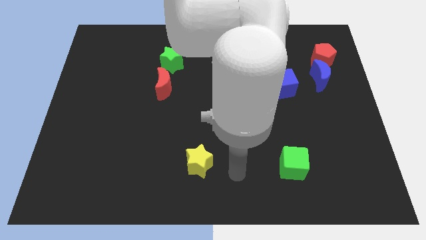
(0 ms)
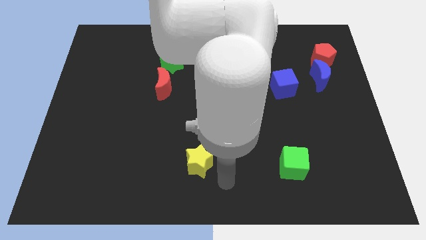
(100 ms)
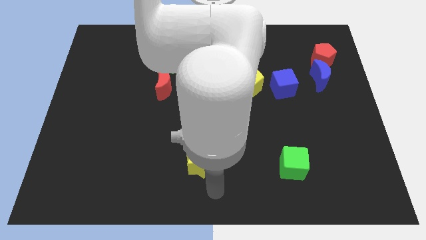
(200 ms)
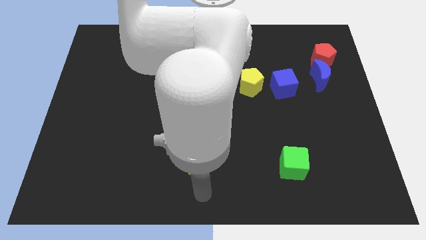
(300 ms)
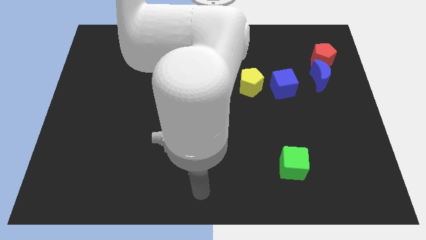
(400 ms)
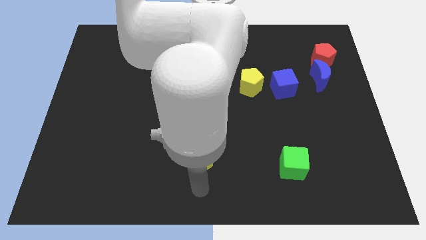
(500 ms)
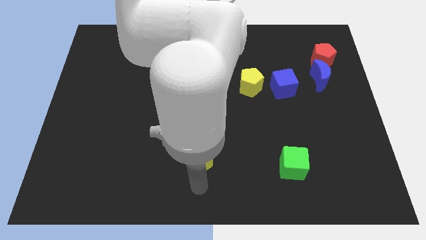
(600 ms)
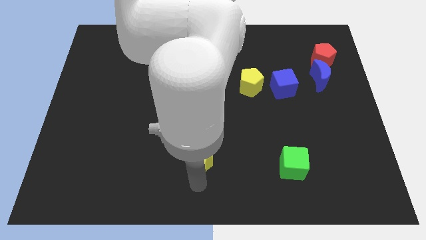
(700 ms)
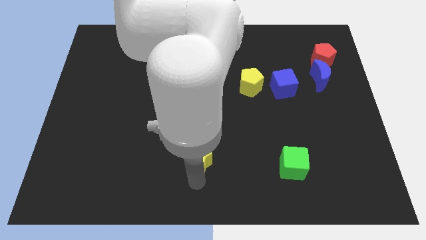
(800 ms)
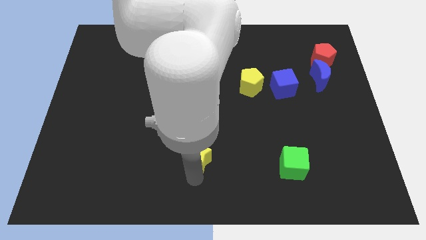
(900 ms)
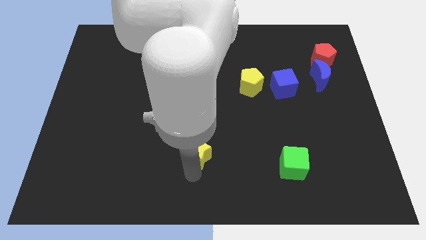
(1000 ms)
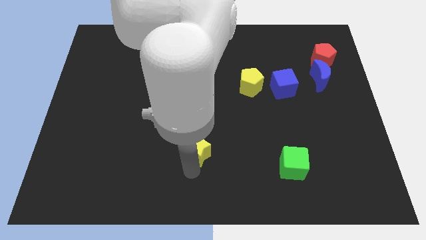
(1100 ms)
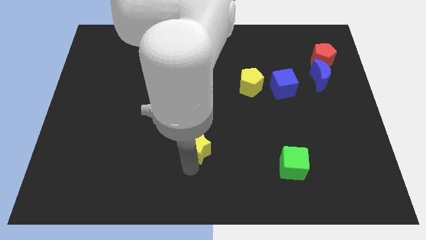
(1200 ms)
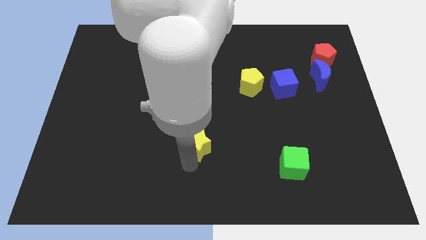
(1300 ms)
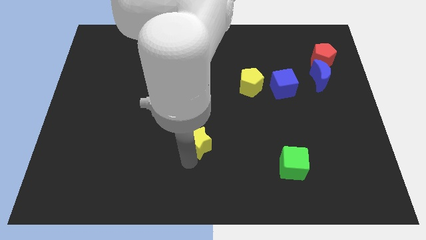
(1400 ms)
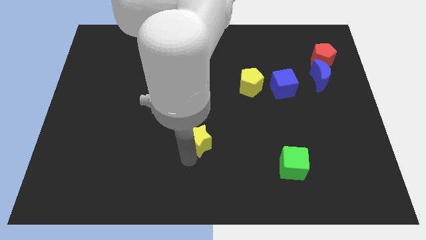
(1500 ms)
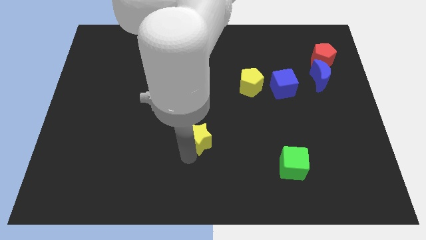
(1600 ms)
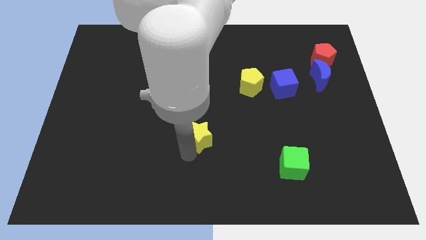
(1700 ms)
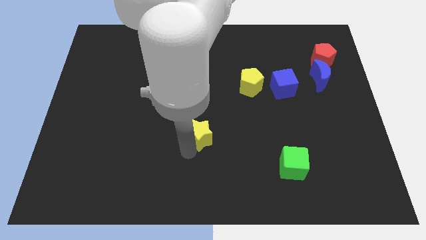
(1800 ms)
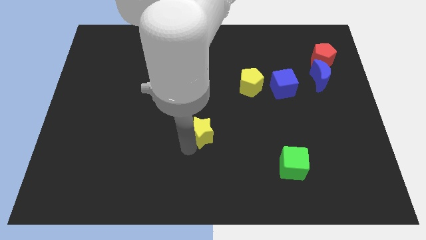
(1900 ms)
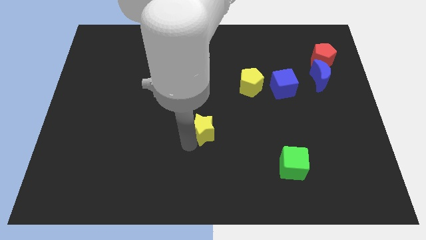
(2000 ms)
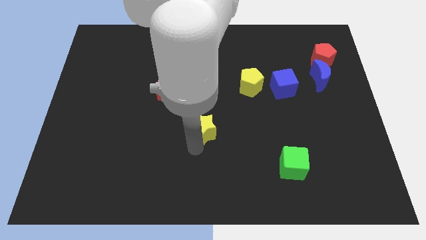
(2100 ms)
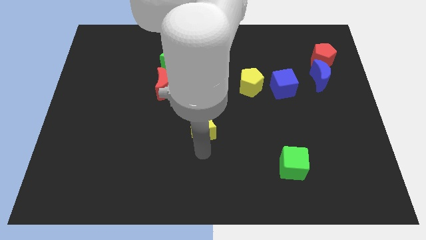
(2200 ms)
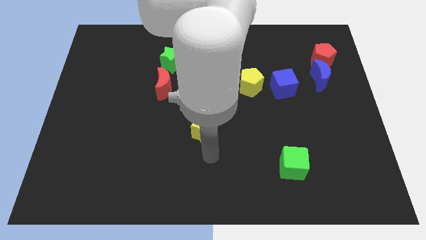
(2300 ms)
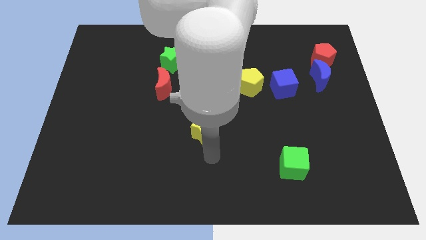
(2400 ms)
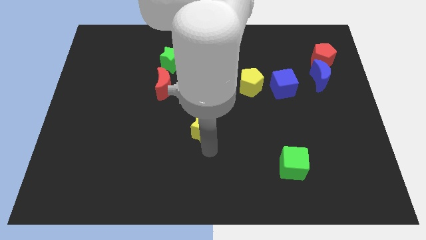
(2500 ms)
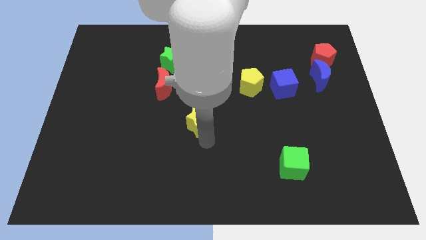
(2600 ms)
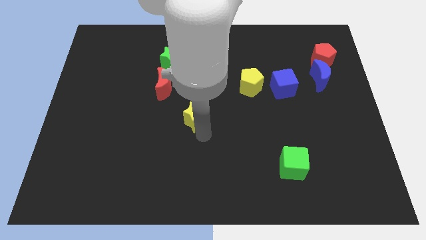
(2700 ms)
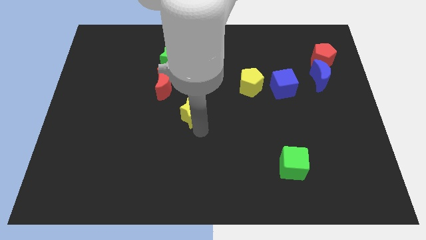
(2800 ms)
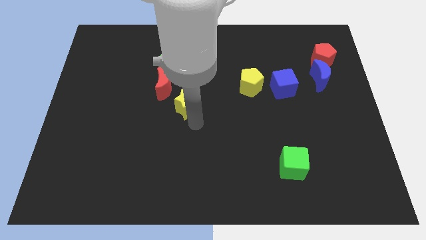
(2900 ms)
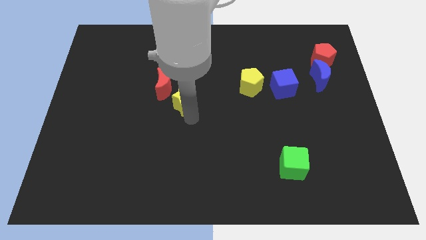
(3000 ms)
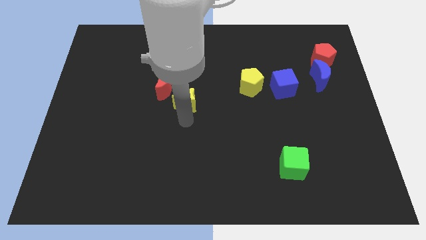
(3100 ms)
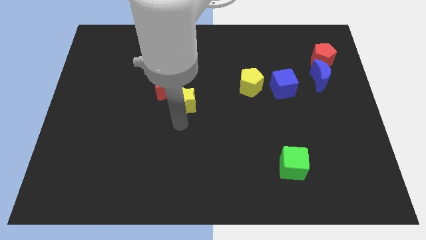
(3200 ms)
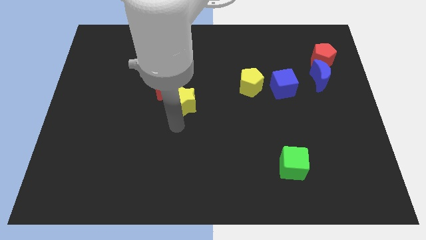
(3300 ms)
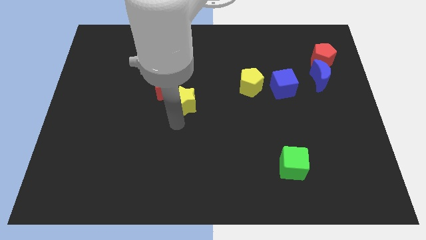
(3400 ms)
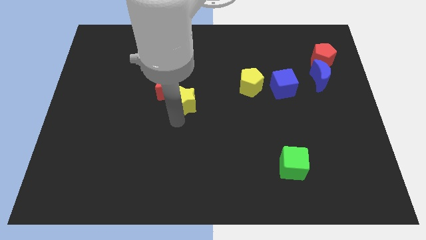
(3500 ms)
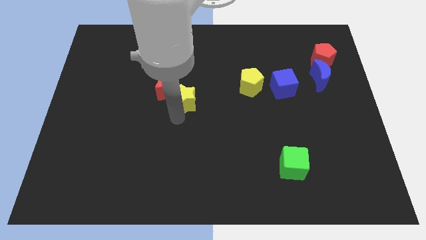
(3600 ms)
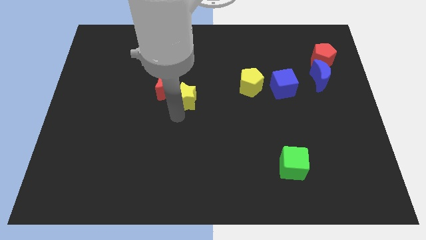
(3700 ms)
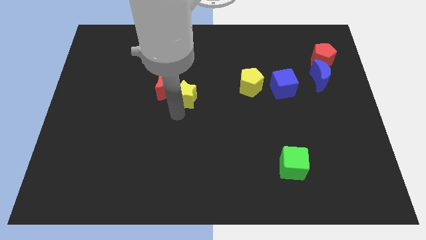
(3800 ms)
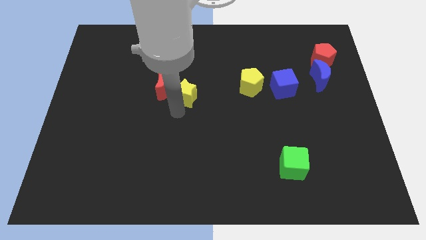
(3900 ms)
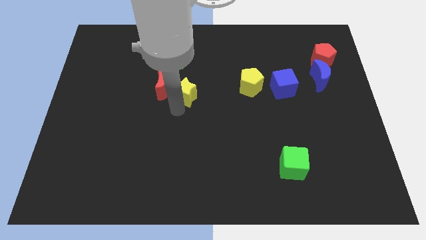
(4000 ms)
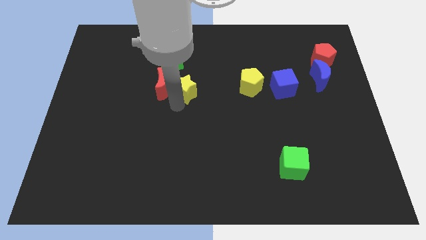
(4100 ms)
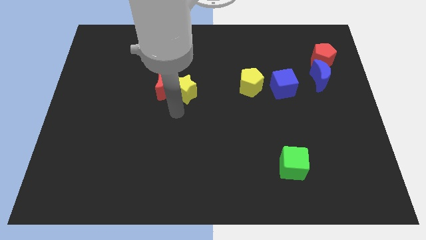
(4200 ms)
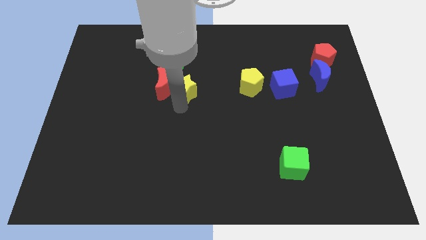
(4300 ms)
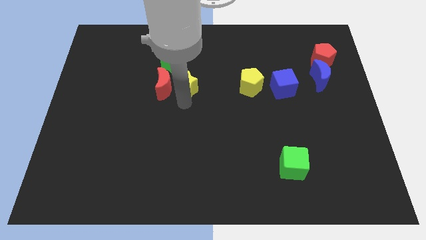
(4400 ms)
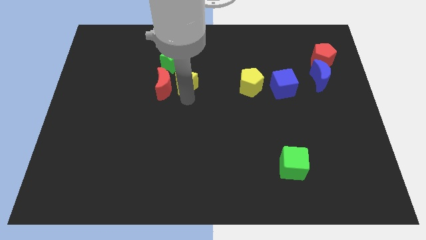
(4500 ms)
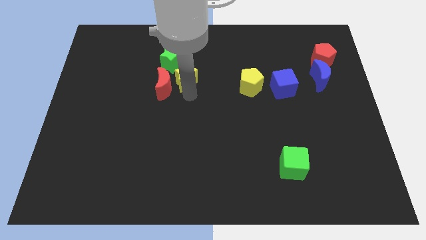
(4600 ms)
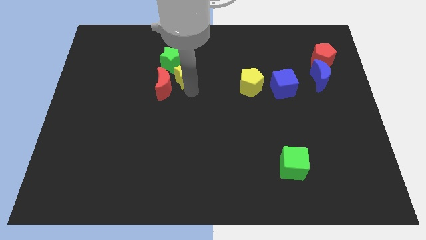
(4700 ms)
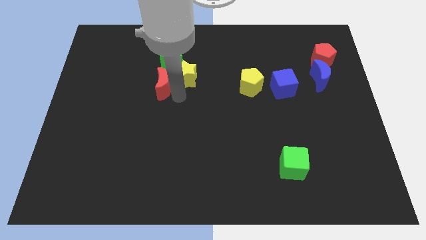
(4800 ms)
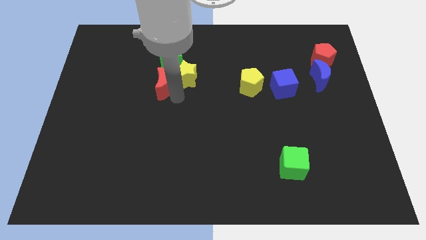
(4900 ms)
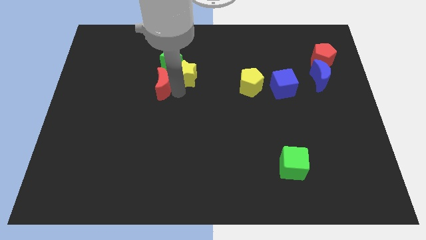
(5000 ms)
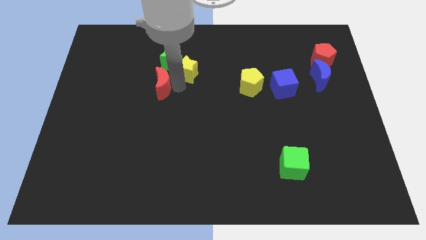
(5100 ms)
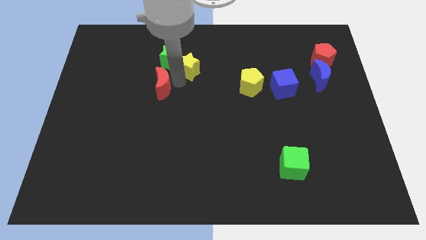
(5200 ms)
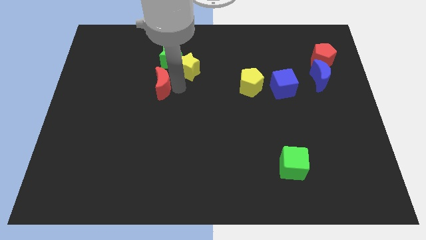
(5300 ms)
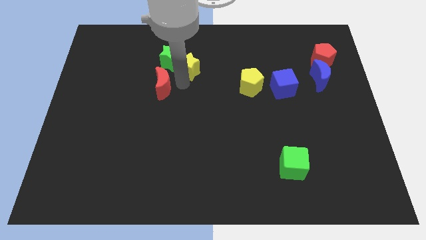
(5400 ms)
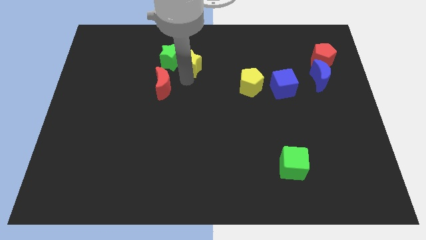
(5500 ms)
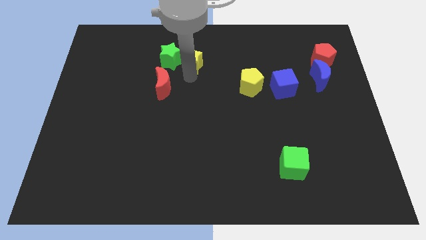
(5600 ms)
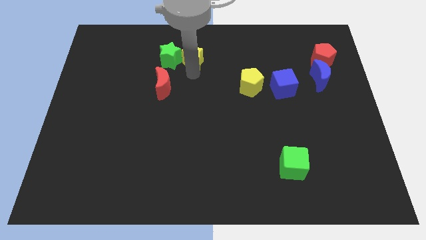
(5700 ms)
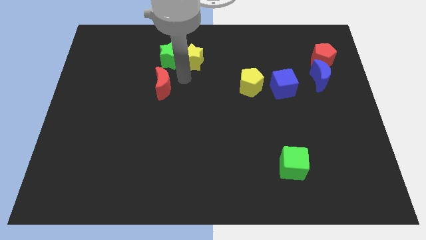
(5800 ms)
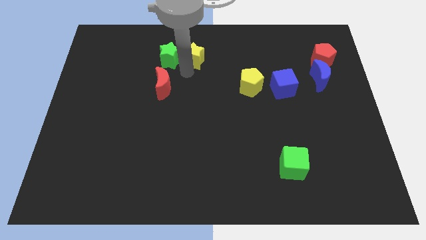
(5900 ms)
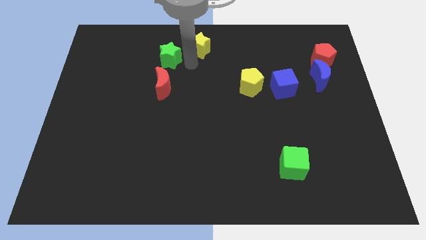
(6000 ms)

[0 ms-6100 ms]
push the yellow star to the towards your base
